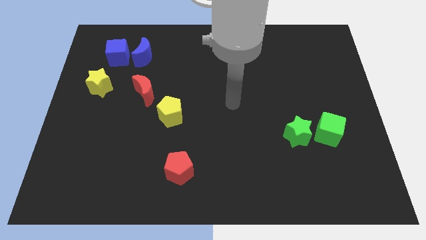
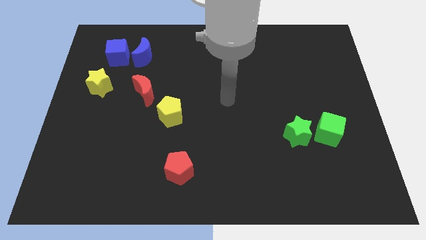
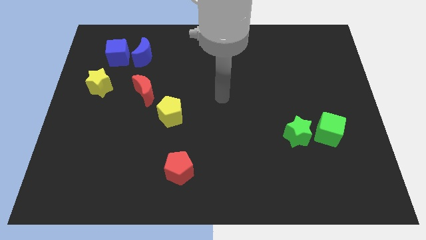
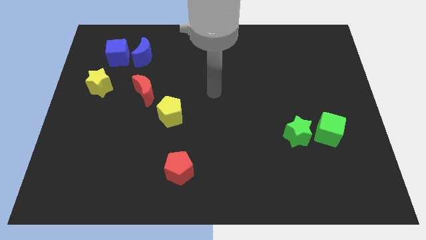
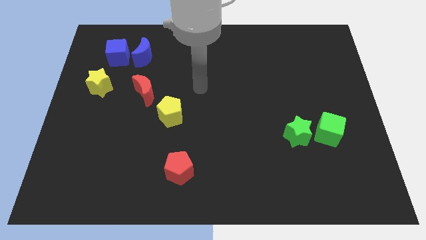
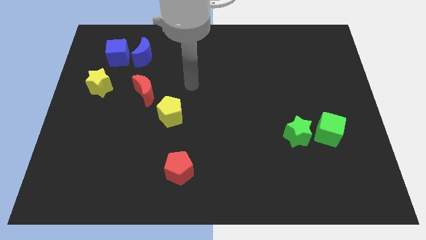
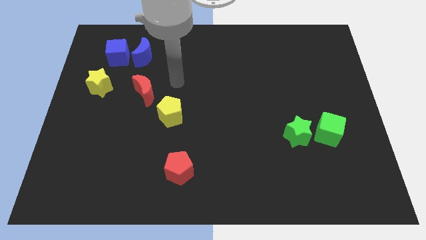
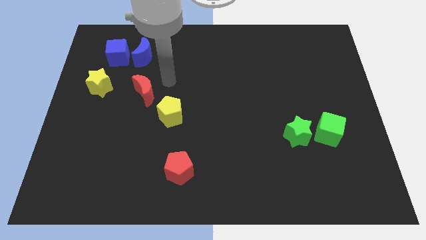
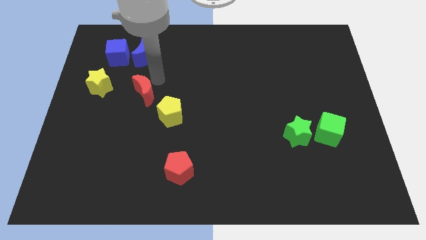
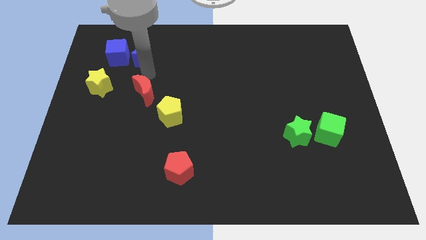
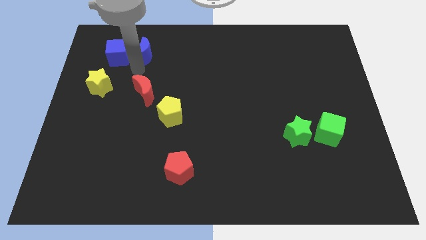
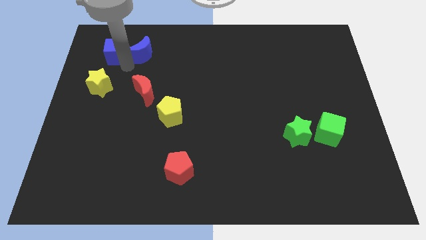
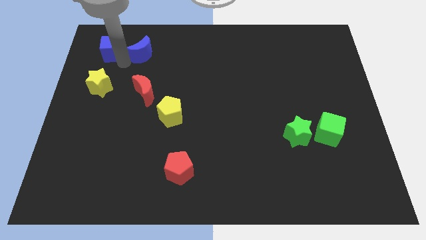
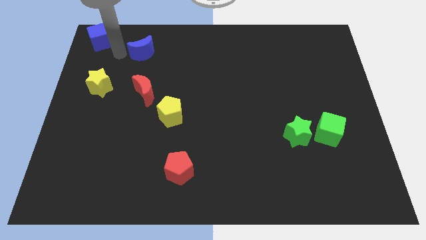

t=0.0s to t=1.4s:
pull the blue moon apart from the blue cube

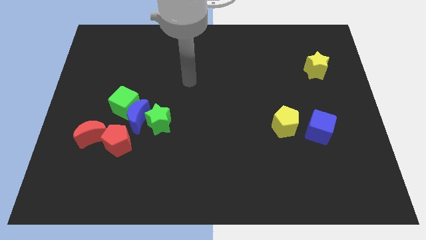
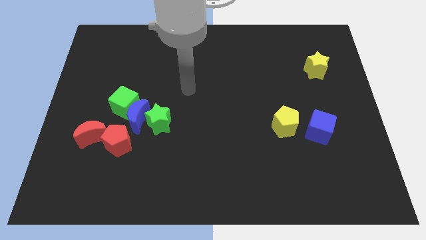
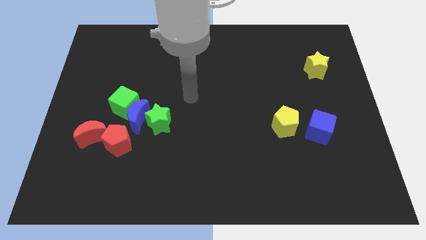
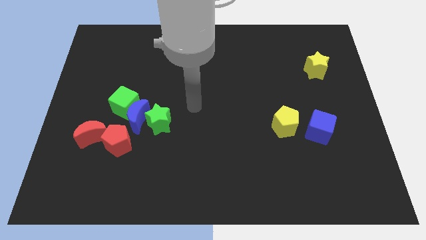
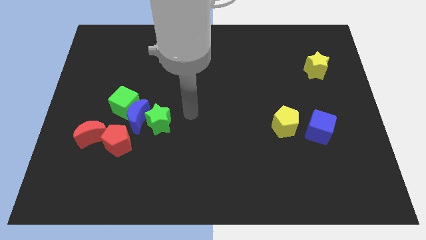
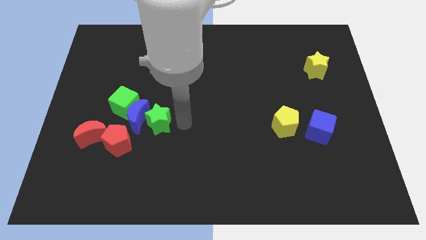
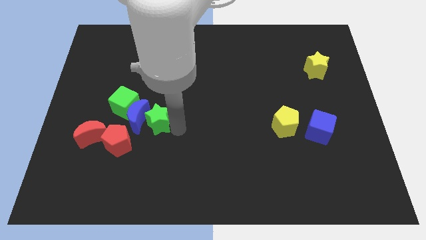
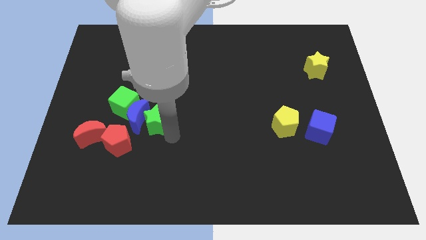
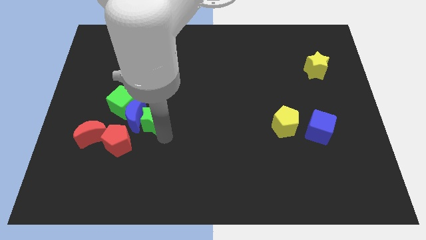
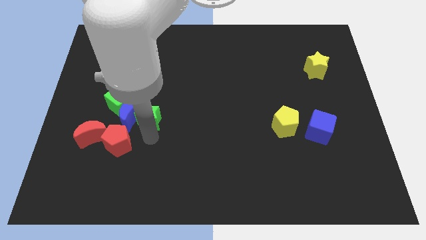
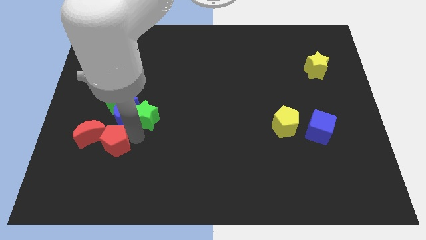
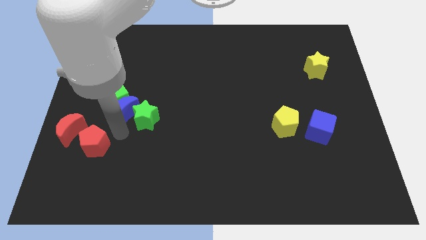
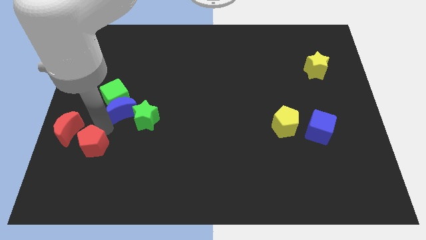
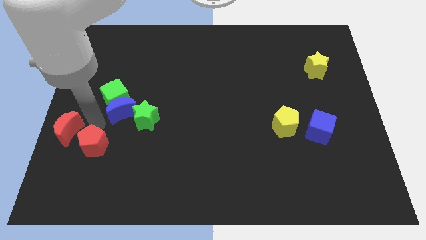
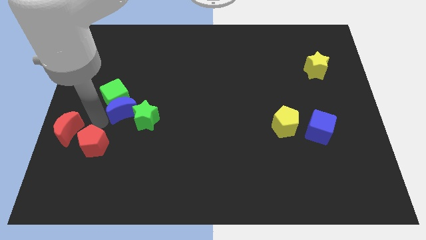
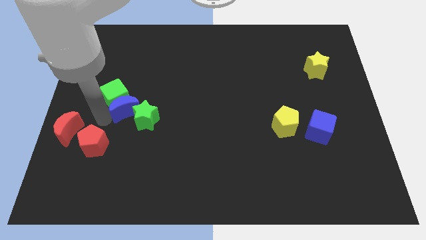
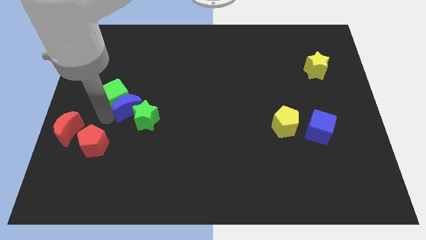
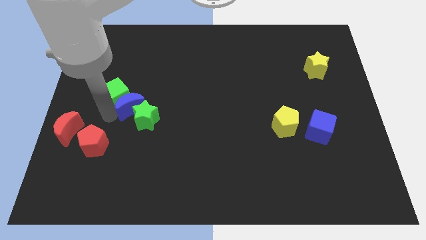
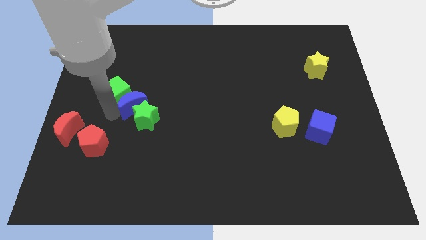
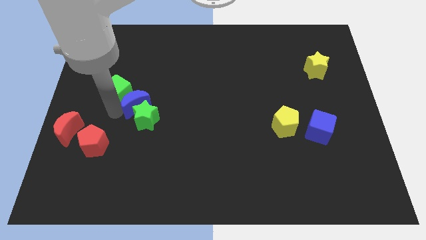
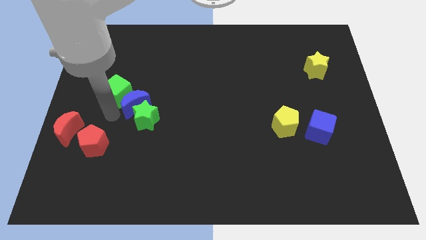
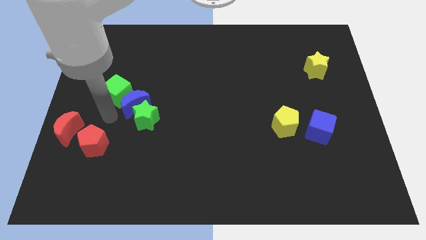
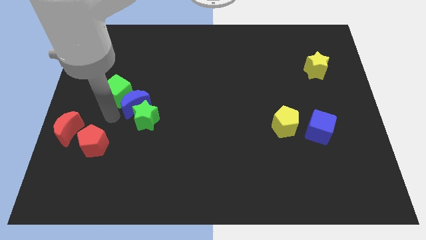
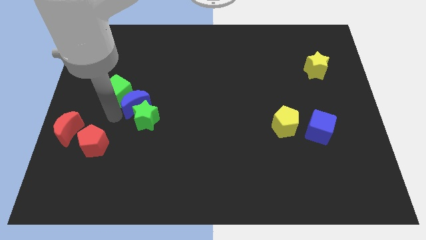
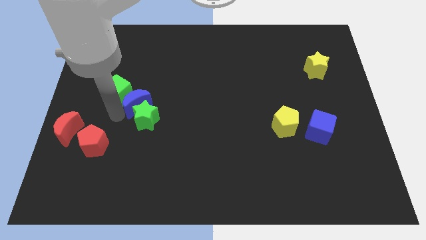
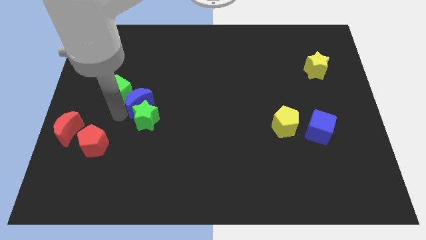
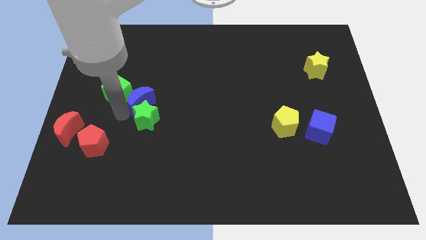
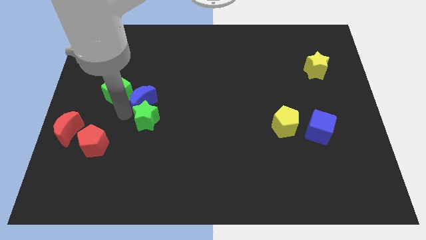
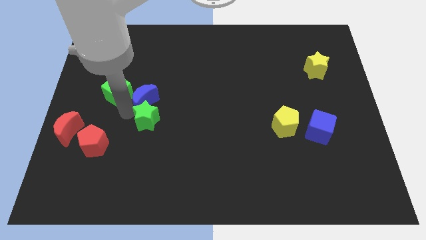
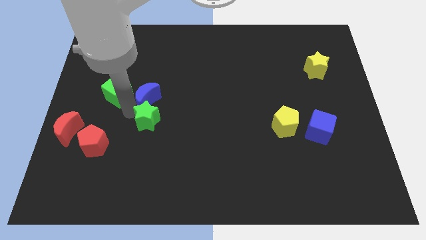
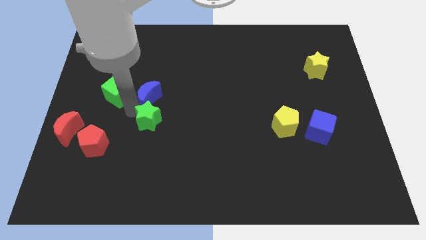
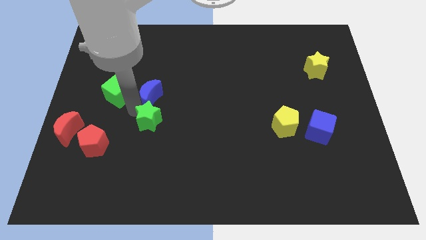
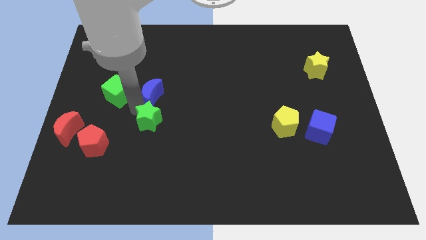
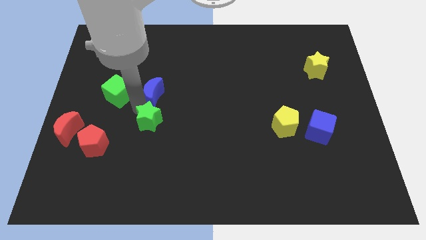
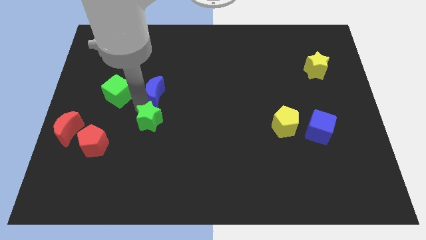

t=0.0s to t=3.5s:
move the blue moon away from the group

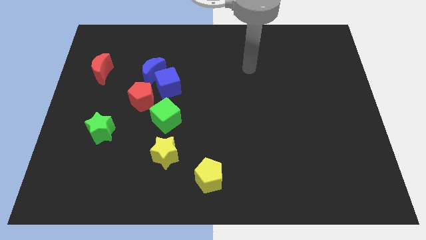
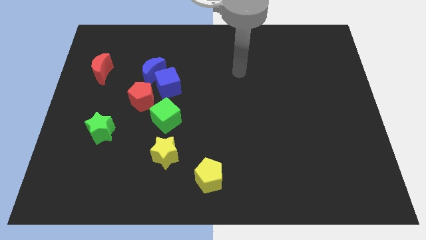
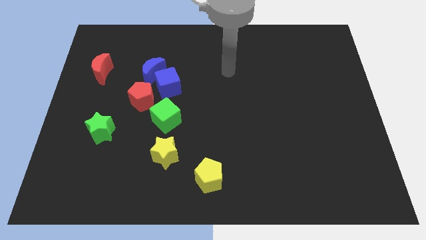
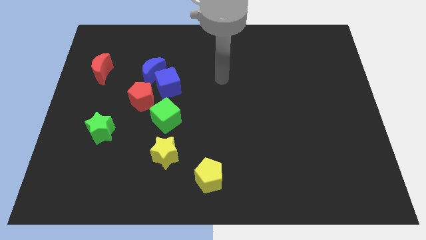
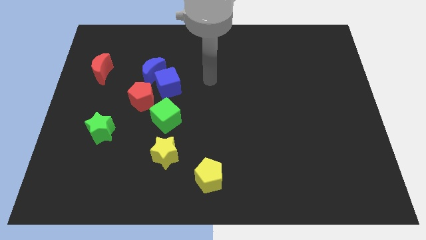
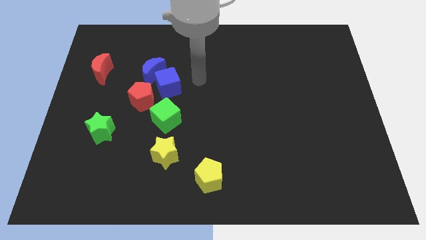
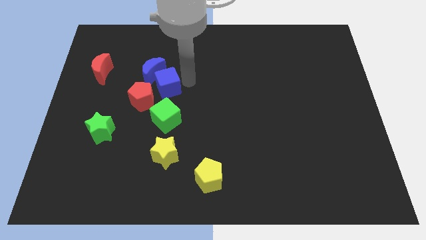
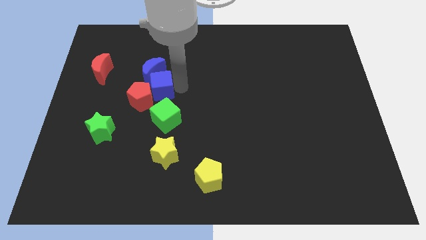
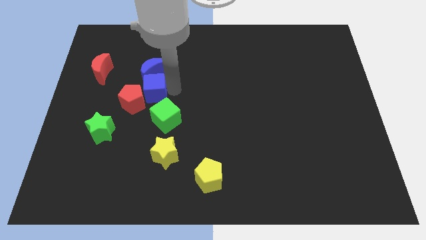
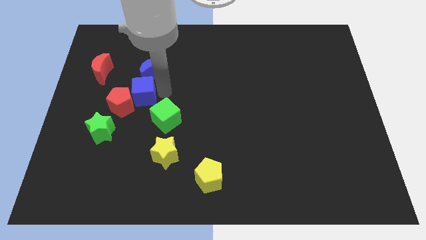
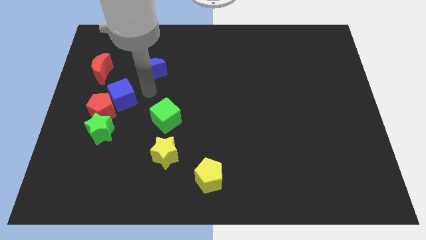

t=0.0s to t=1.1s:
pull the blue moon apart from the blue cube and red pentagon

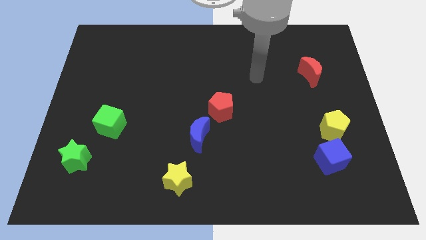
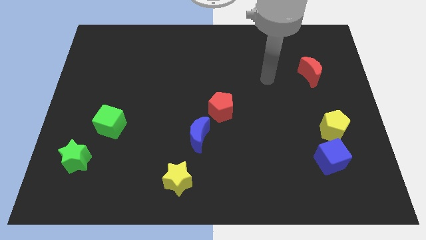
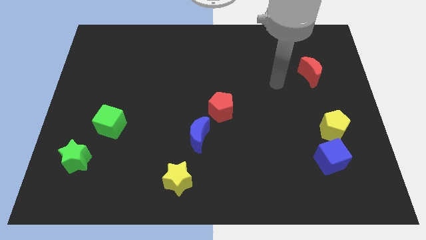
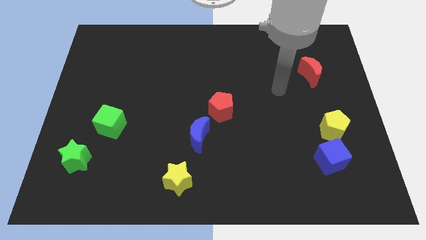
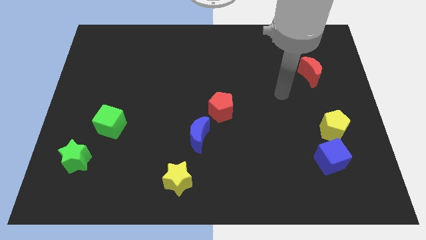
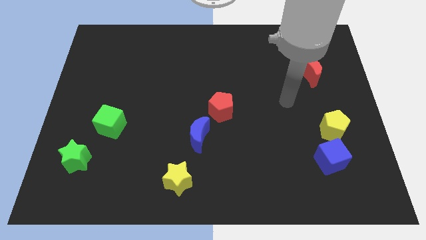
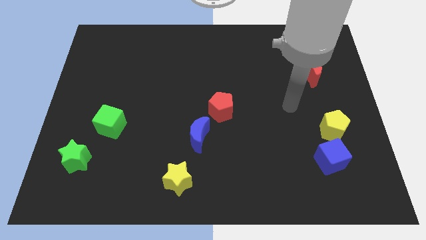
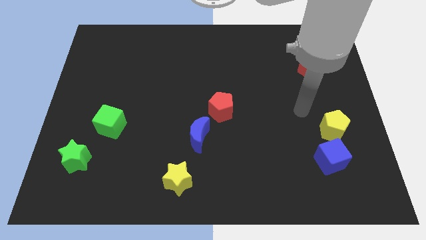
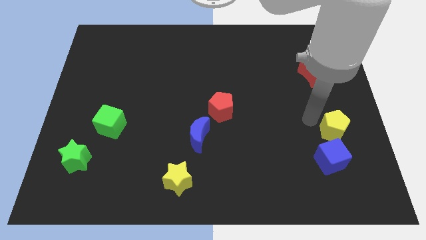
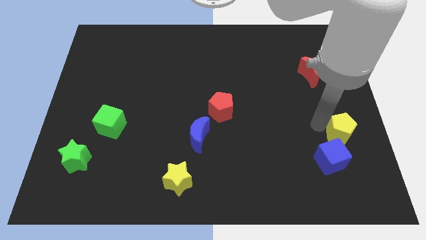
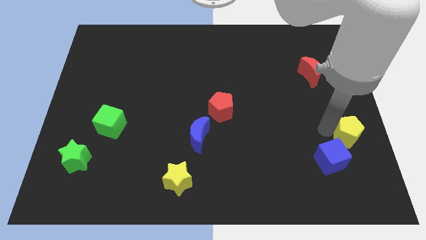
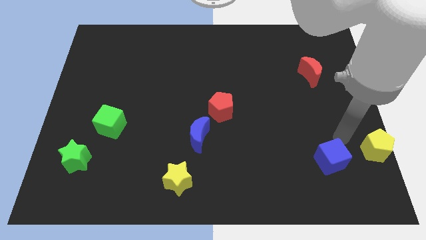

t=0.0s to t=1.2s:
move the blue cube away from the yellow pentagon

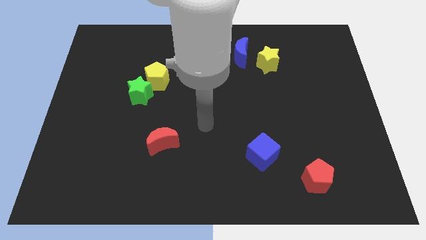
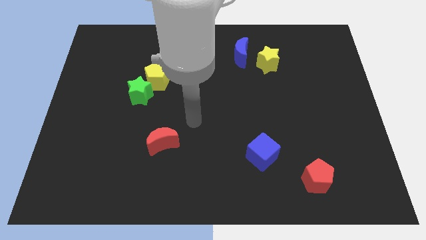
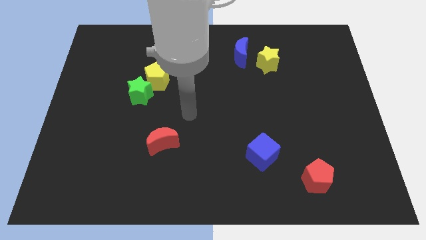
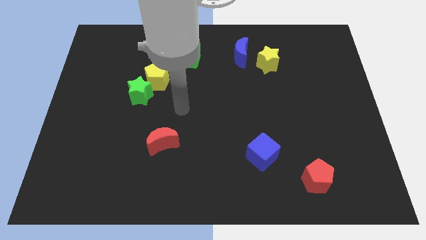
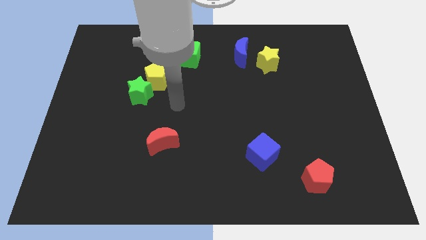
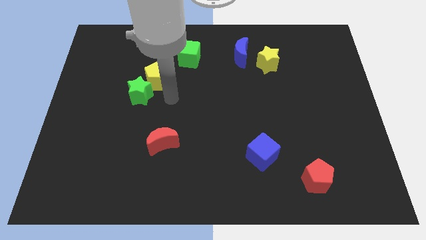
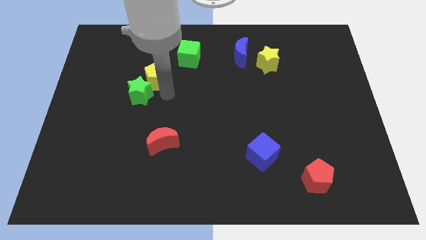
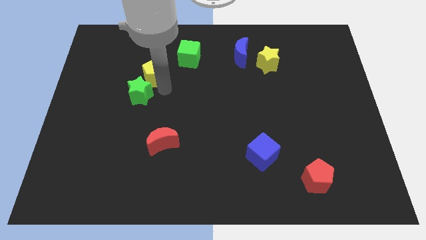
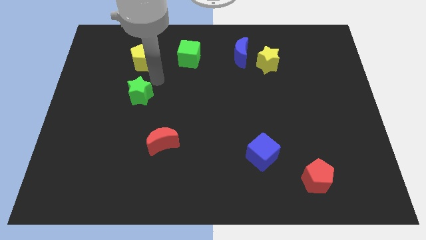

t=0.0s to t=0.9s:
move the green star away from the yellow pentagon

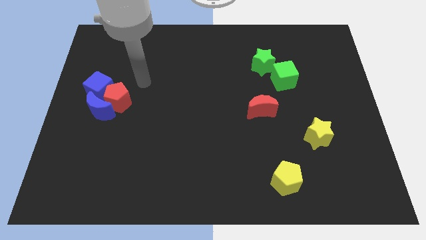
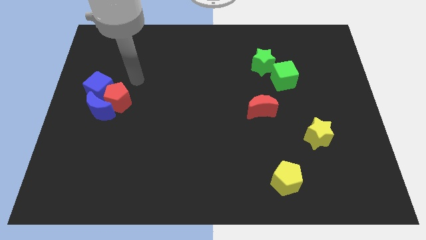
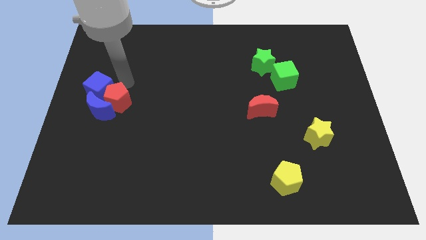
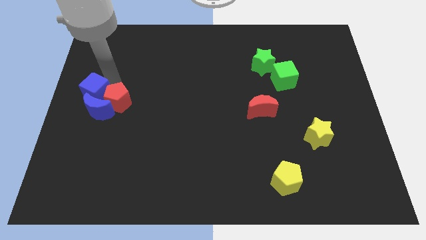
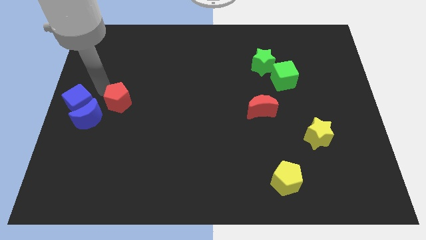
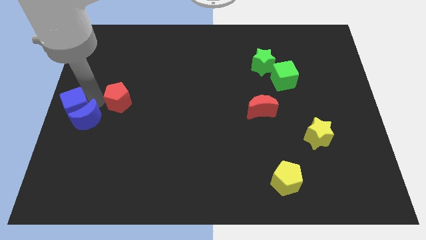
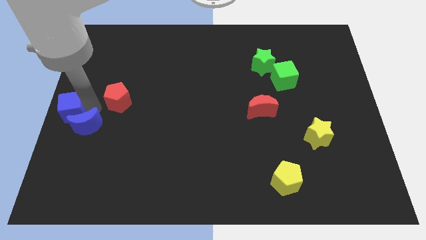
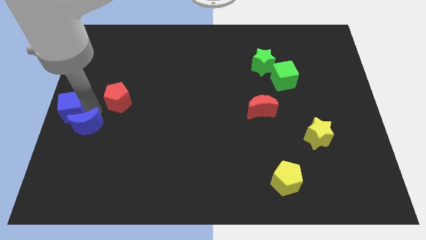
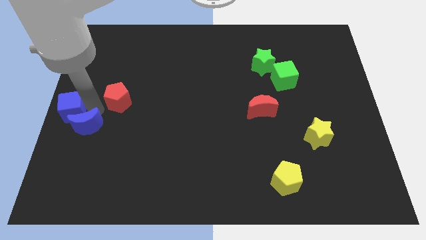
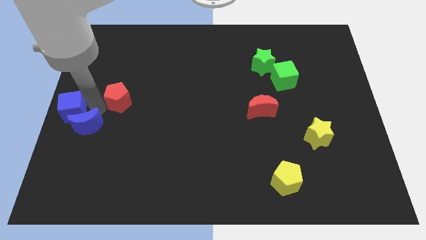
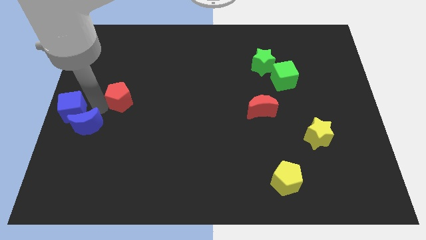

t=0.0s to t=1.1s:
pull the red pentagon apart from the blue moon and blue cube
